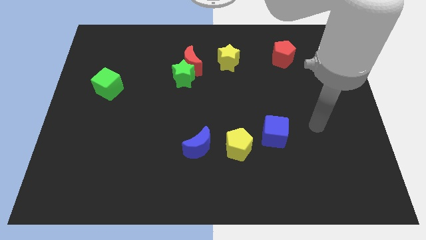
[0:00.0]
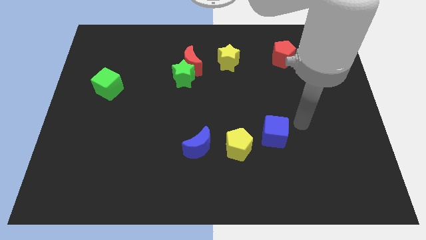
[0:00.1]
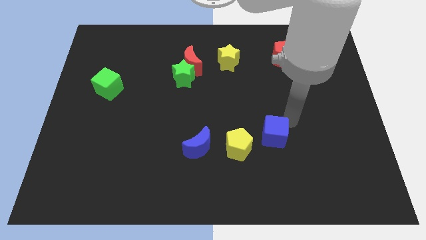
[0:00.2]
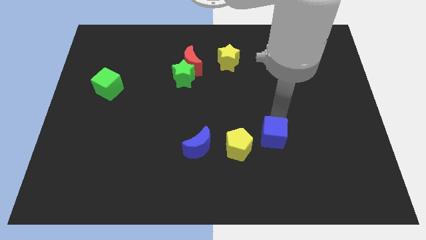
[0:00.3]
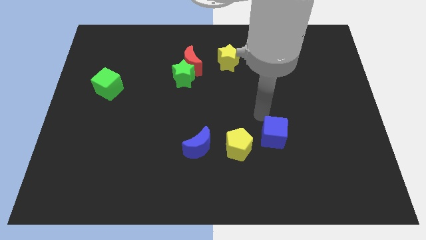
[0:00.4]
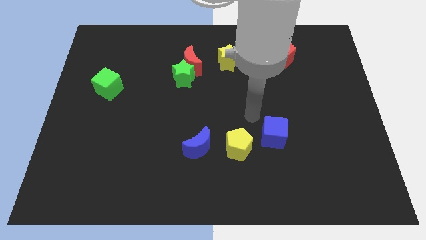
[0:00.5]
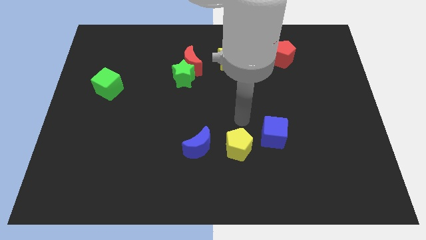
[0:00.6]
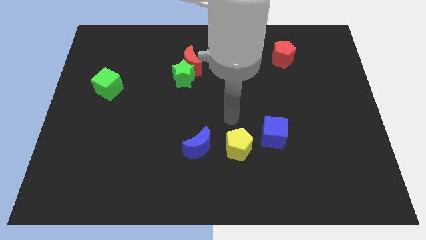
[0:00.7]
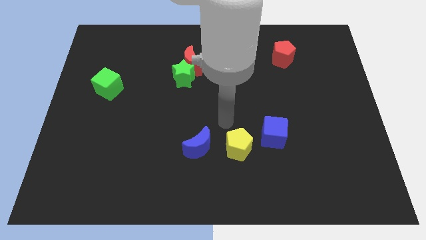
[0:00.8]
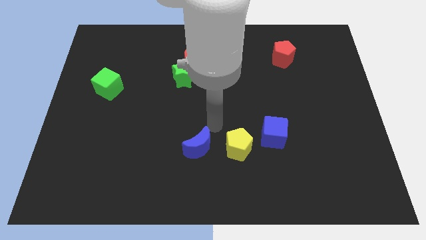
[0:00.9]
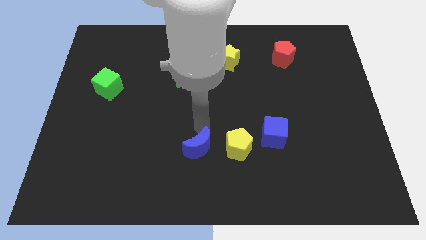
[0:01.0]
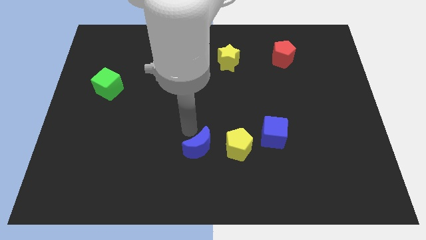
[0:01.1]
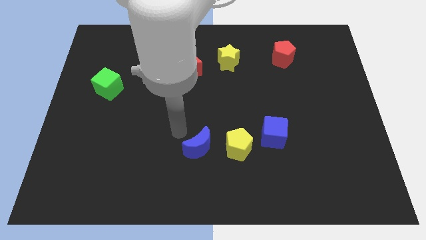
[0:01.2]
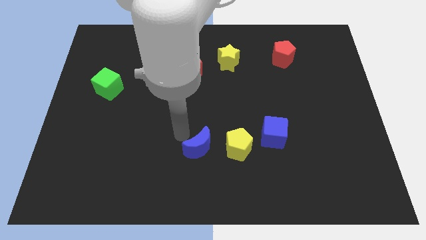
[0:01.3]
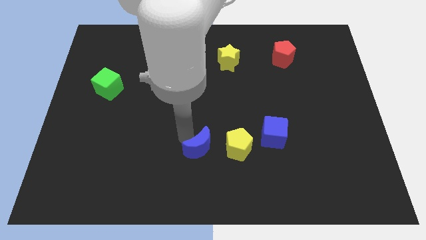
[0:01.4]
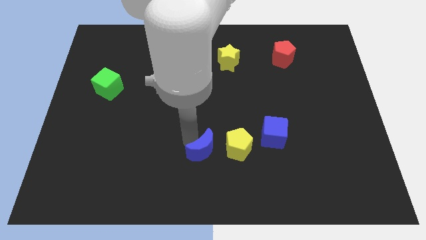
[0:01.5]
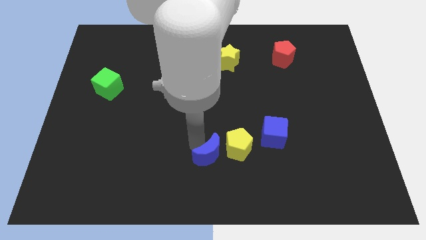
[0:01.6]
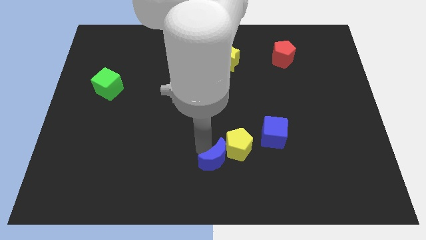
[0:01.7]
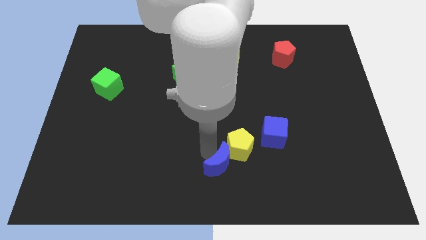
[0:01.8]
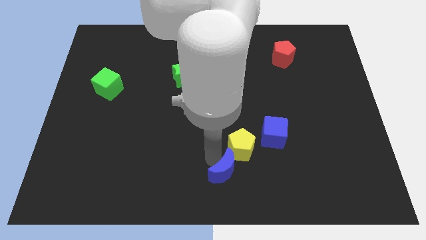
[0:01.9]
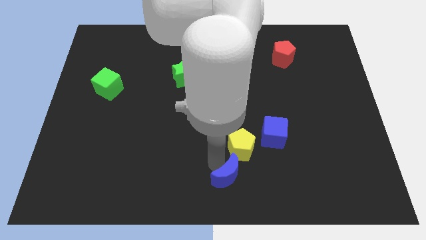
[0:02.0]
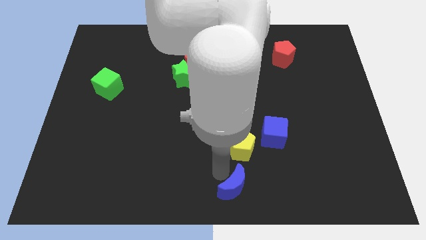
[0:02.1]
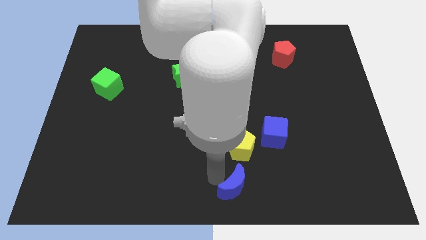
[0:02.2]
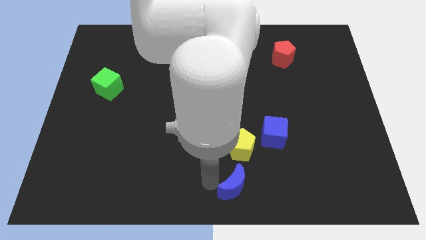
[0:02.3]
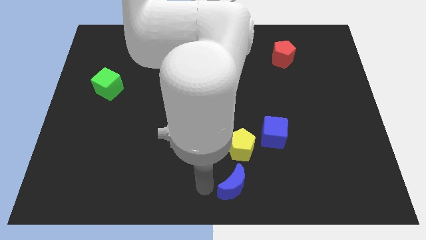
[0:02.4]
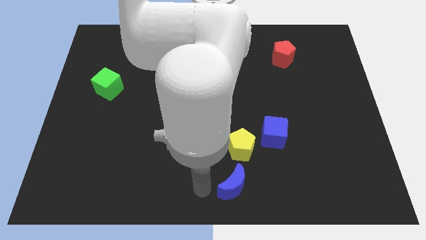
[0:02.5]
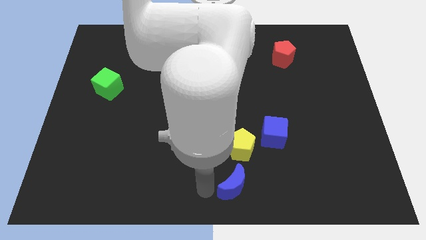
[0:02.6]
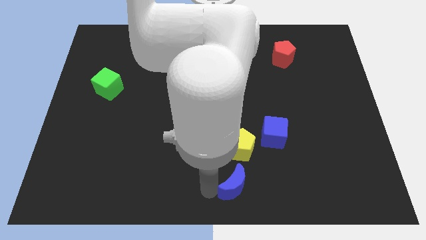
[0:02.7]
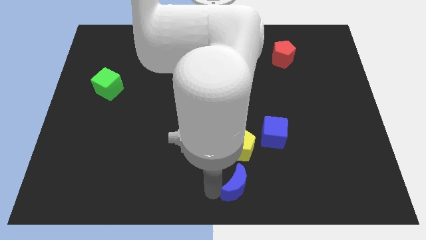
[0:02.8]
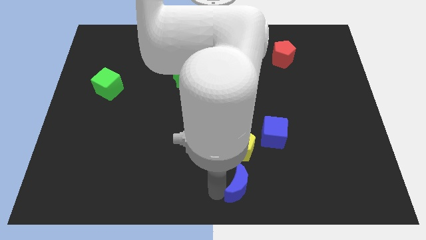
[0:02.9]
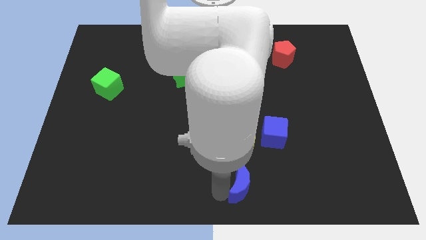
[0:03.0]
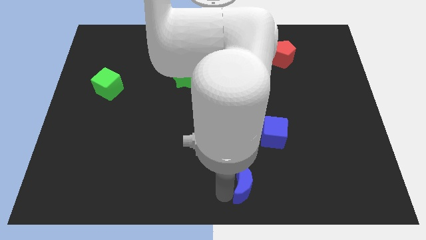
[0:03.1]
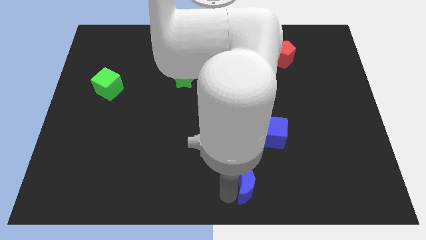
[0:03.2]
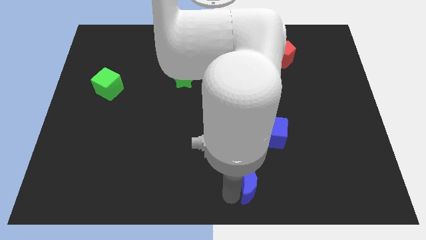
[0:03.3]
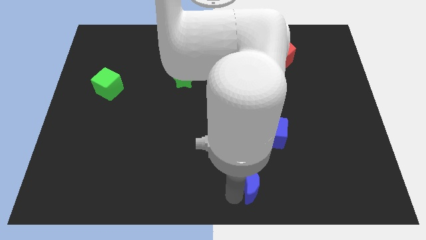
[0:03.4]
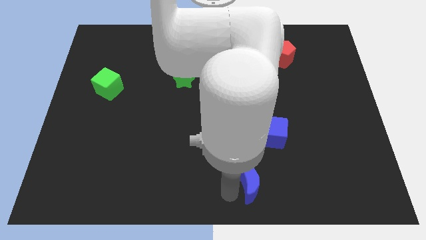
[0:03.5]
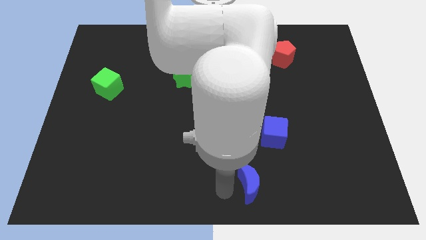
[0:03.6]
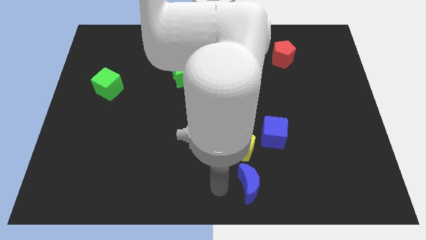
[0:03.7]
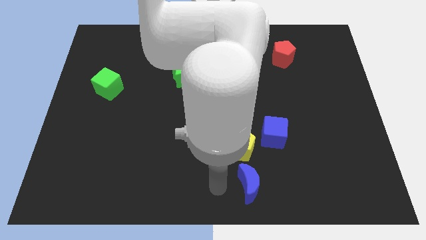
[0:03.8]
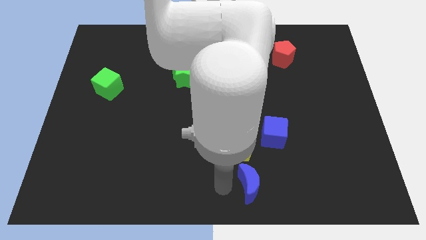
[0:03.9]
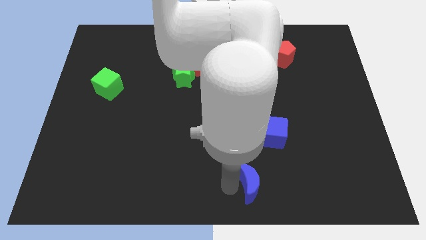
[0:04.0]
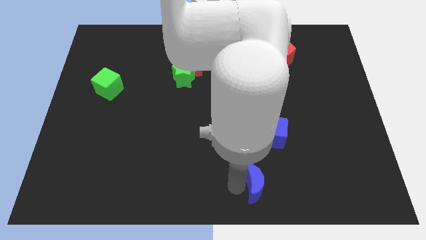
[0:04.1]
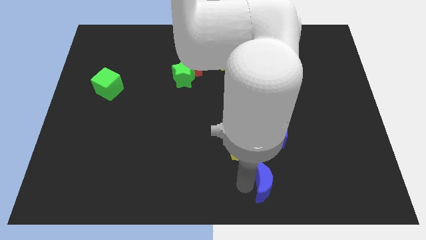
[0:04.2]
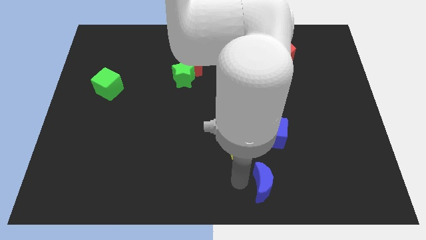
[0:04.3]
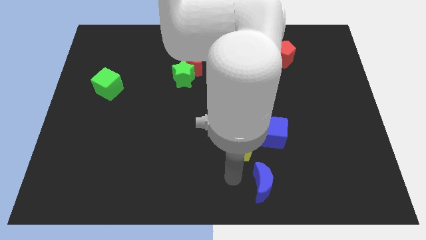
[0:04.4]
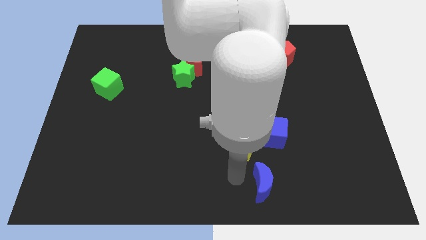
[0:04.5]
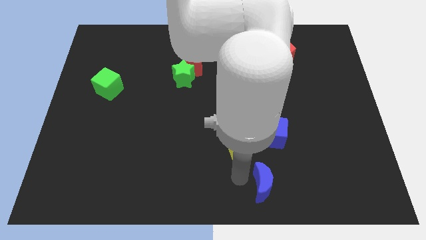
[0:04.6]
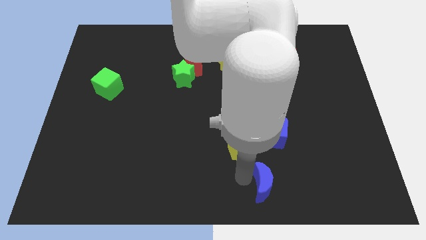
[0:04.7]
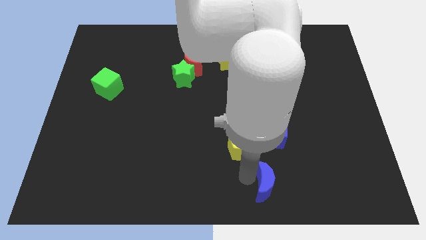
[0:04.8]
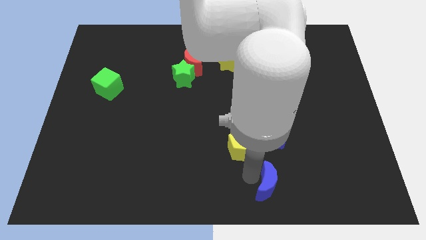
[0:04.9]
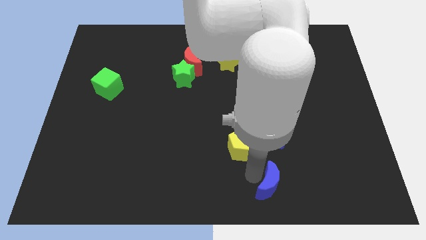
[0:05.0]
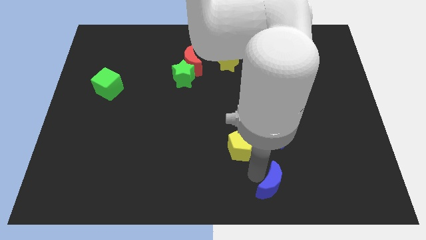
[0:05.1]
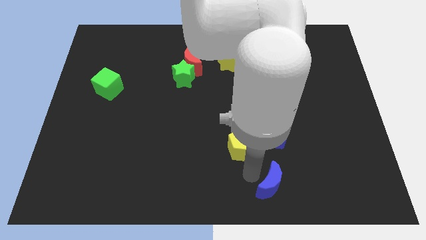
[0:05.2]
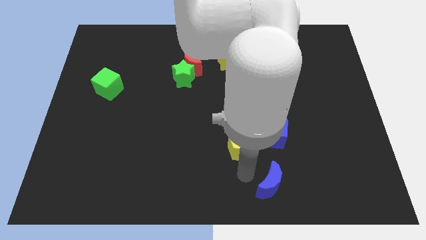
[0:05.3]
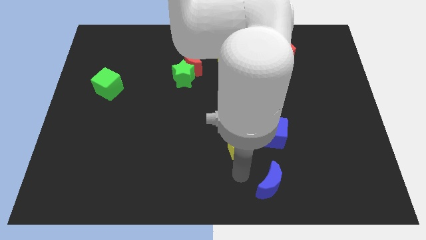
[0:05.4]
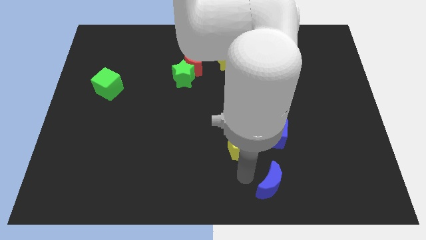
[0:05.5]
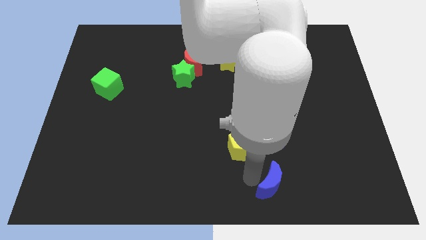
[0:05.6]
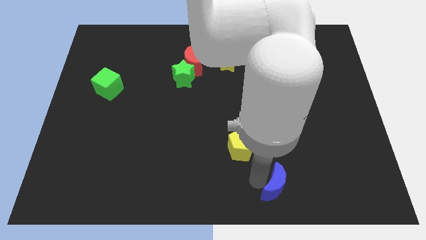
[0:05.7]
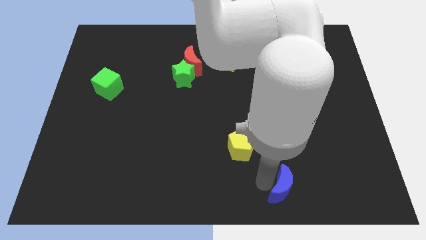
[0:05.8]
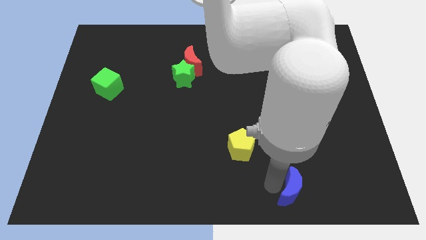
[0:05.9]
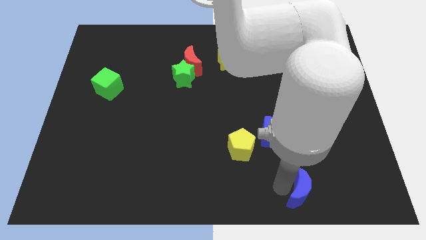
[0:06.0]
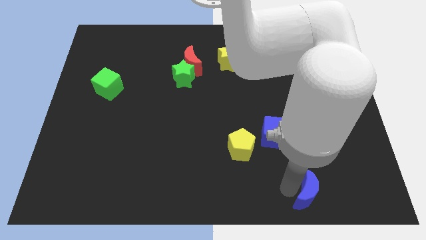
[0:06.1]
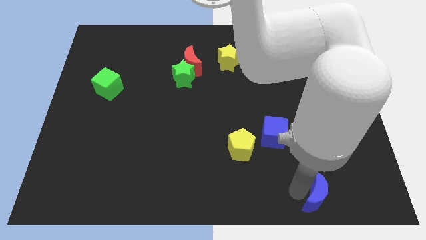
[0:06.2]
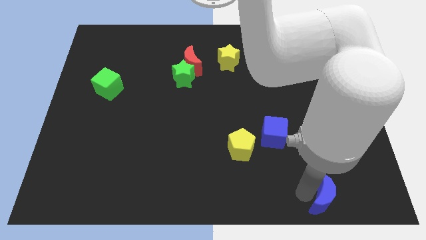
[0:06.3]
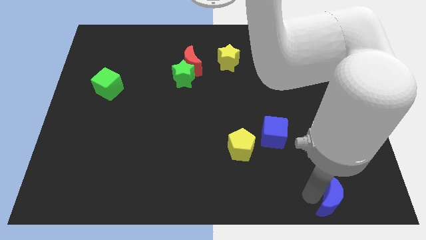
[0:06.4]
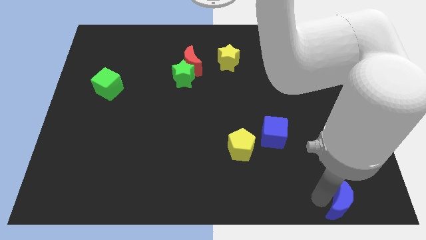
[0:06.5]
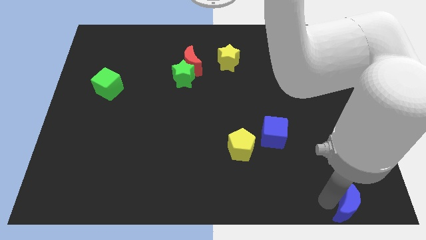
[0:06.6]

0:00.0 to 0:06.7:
put the blue moon to the bottom right
